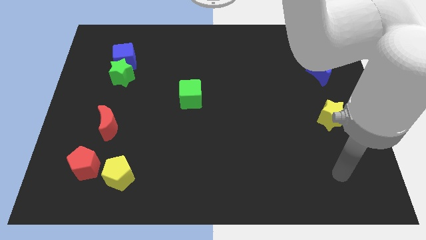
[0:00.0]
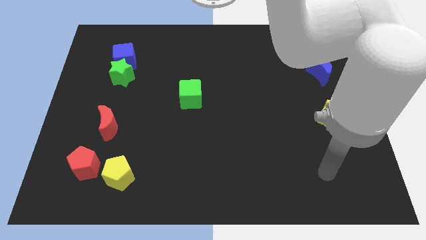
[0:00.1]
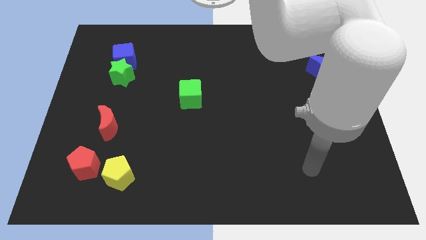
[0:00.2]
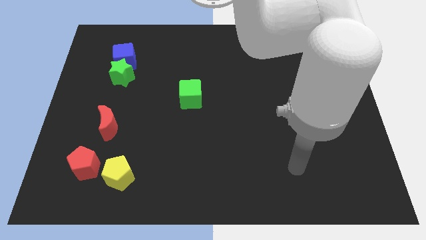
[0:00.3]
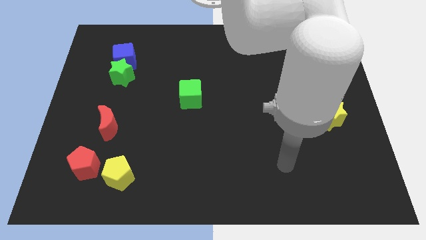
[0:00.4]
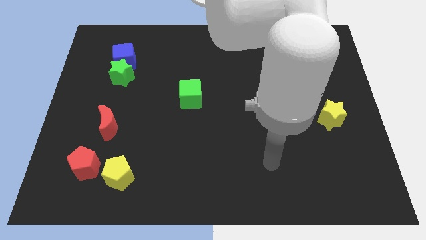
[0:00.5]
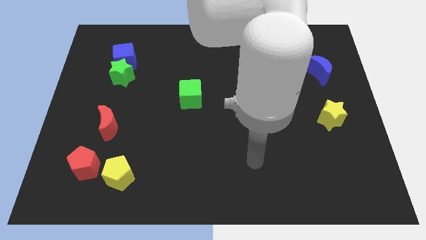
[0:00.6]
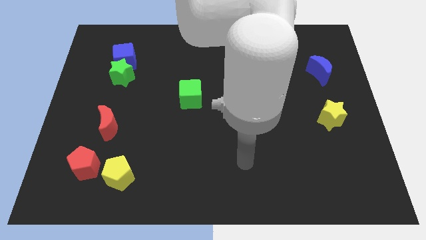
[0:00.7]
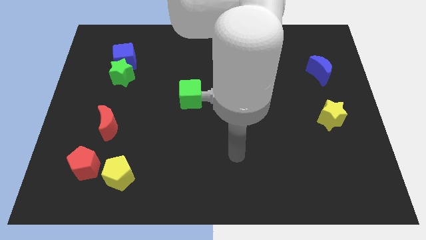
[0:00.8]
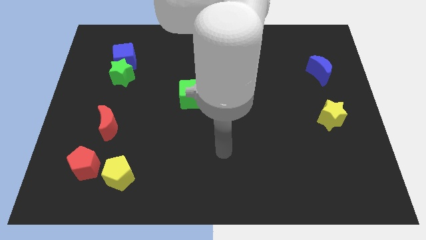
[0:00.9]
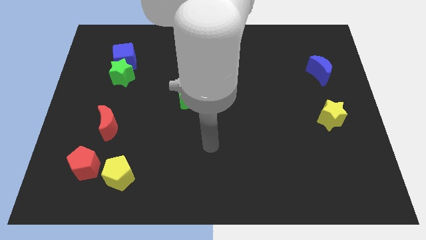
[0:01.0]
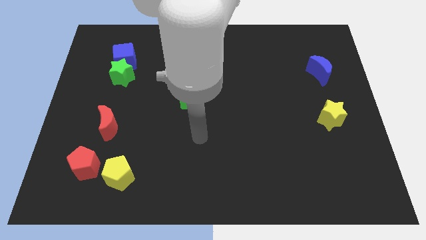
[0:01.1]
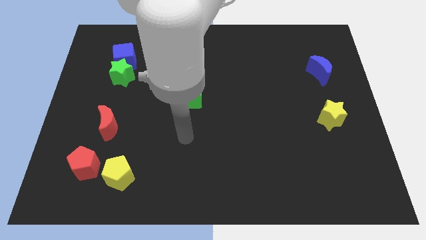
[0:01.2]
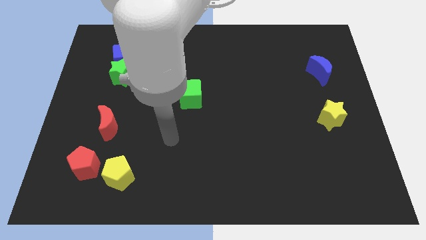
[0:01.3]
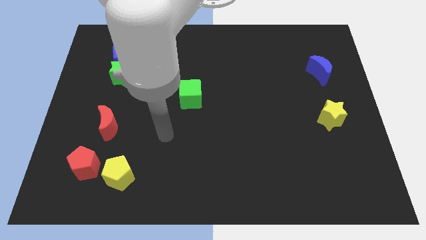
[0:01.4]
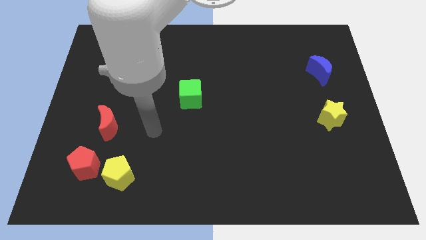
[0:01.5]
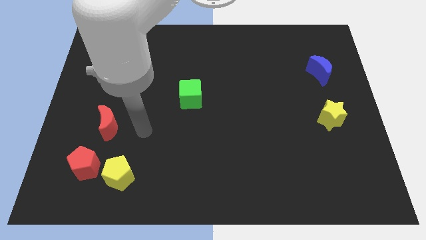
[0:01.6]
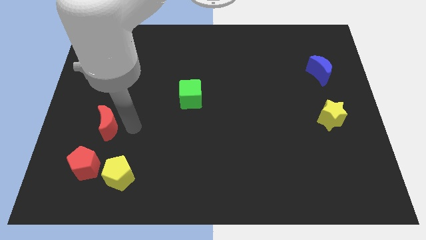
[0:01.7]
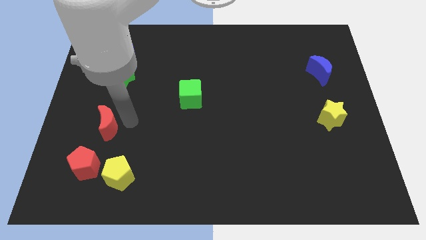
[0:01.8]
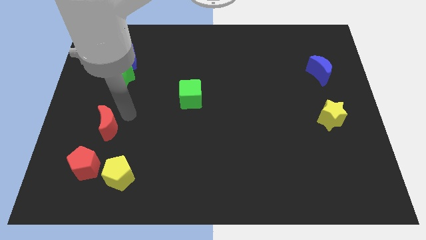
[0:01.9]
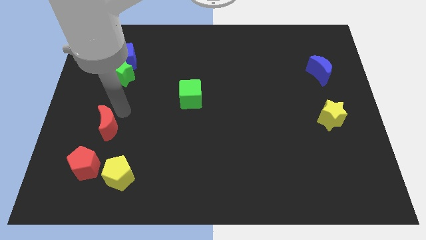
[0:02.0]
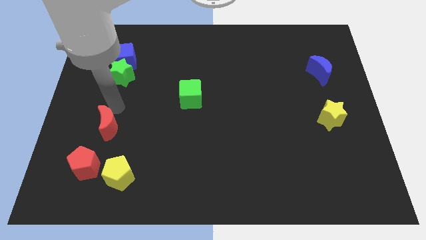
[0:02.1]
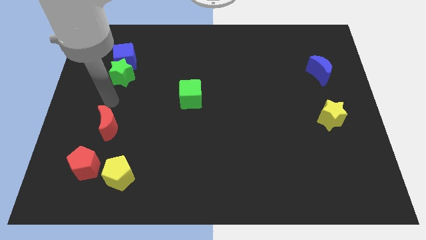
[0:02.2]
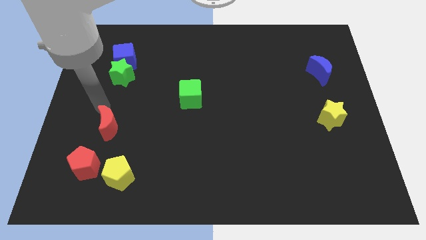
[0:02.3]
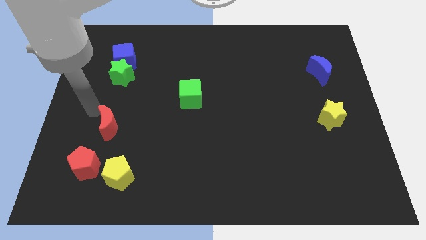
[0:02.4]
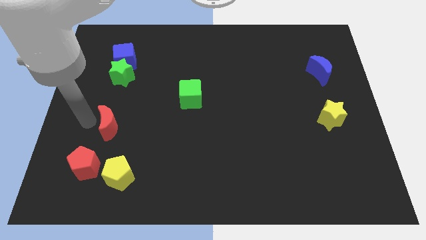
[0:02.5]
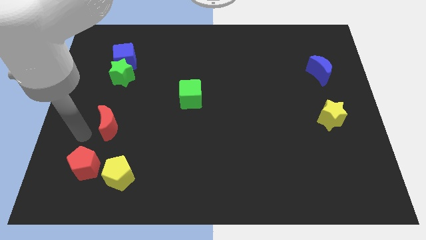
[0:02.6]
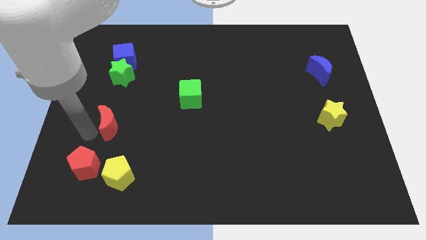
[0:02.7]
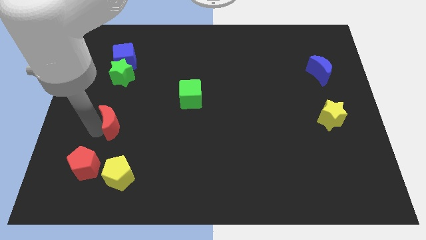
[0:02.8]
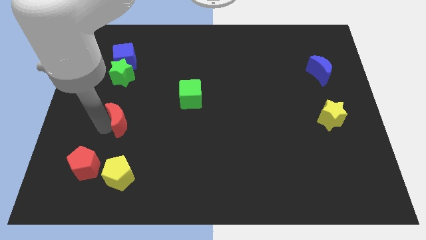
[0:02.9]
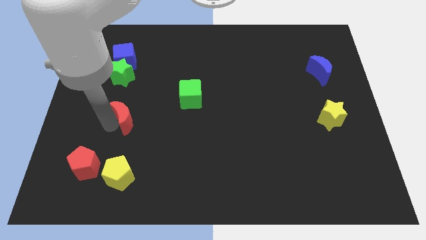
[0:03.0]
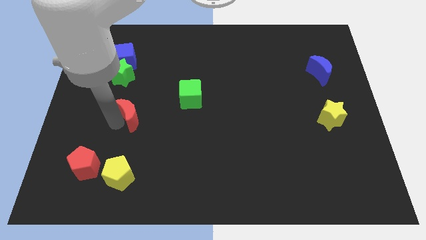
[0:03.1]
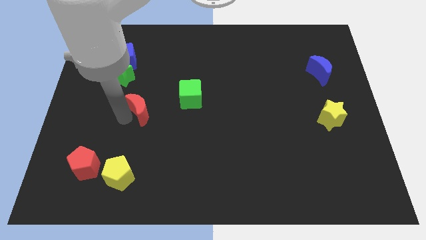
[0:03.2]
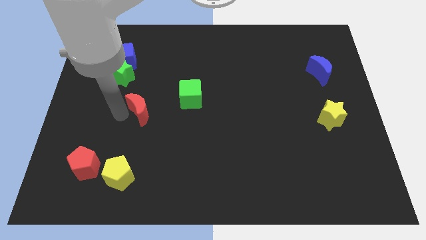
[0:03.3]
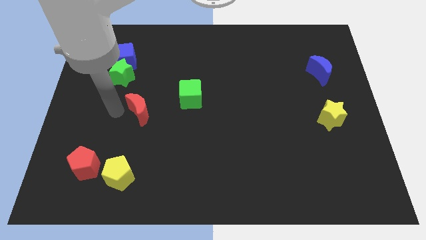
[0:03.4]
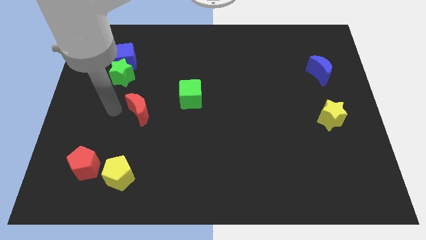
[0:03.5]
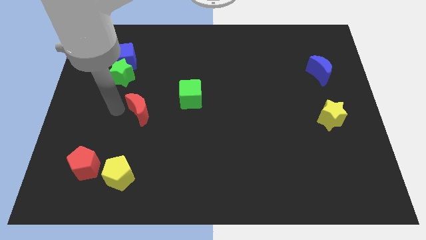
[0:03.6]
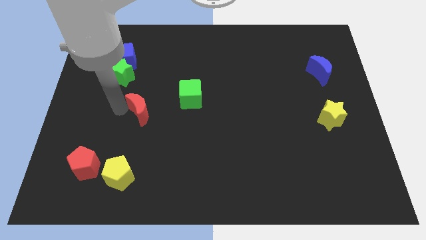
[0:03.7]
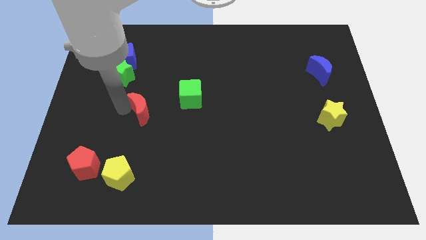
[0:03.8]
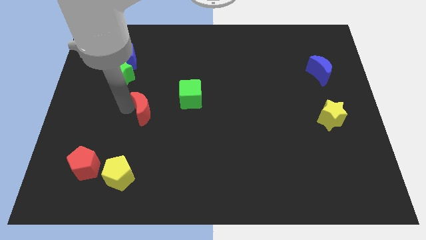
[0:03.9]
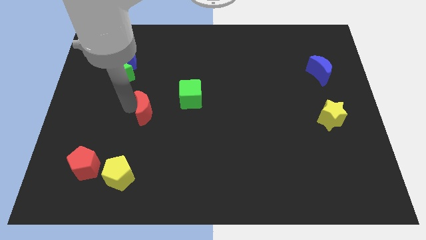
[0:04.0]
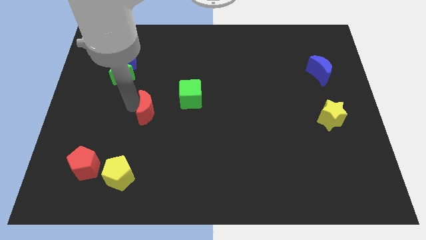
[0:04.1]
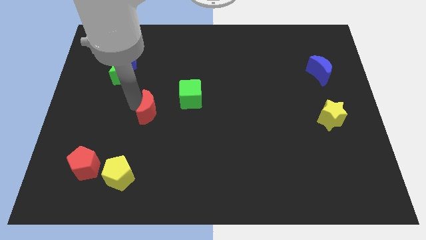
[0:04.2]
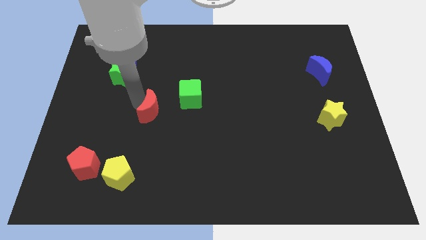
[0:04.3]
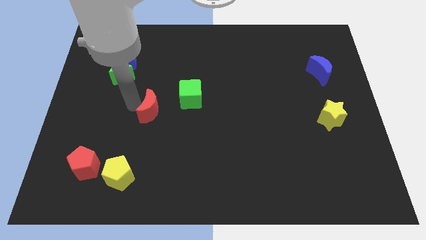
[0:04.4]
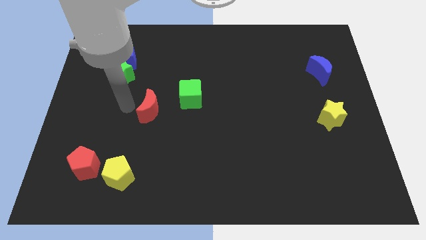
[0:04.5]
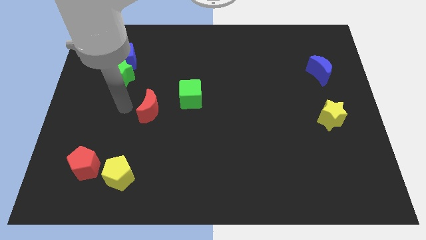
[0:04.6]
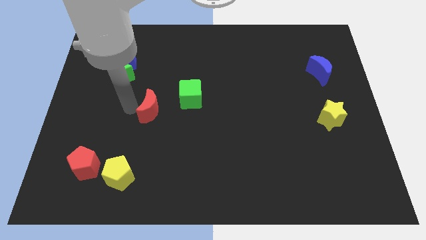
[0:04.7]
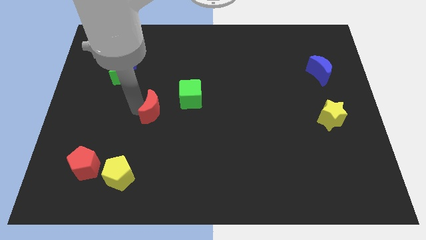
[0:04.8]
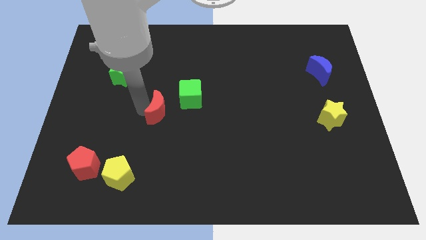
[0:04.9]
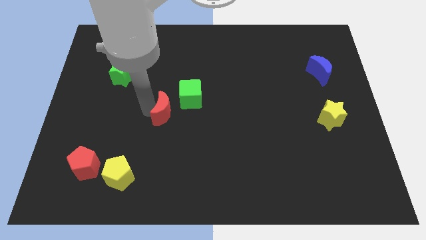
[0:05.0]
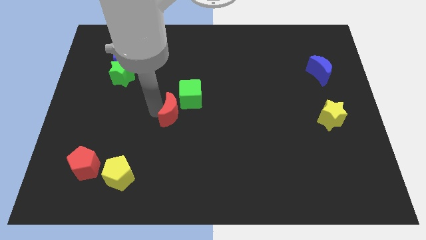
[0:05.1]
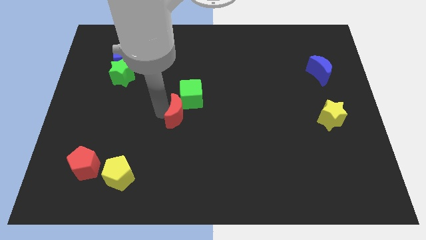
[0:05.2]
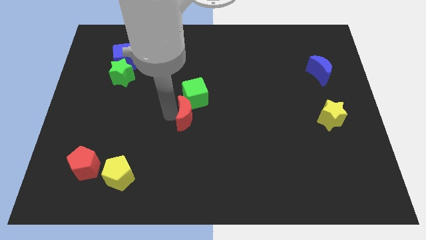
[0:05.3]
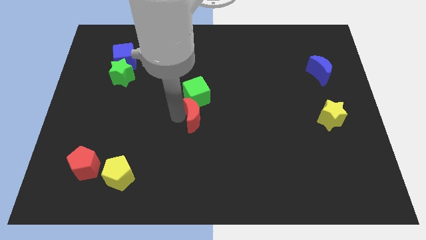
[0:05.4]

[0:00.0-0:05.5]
slide the red moon to the bottom right side of the green cube

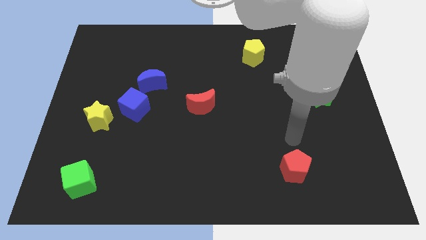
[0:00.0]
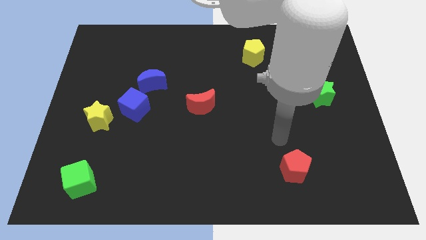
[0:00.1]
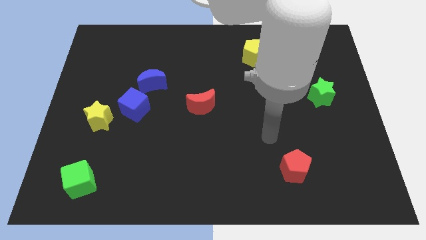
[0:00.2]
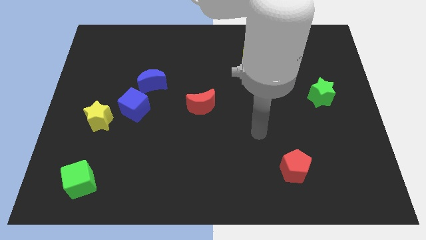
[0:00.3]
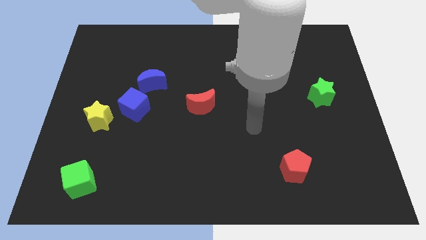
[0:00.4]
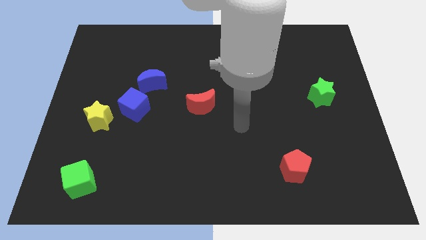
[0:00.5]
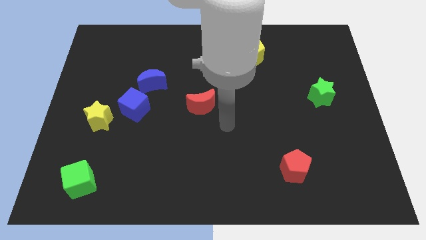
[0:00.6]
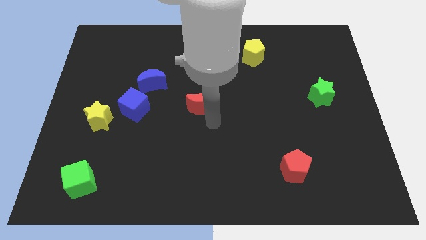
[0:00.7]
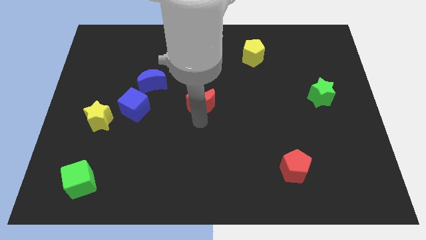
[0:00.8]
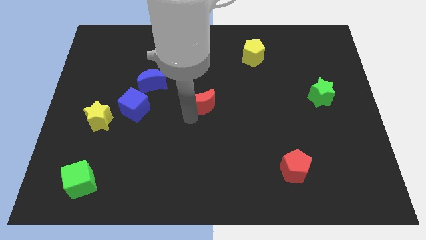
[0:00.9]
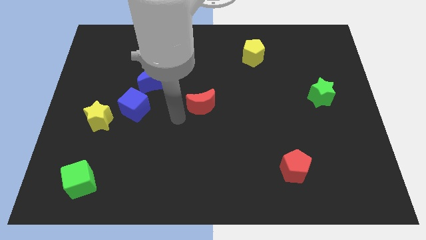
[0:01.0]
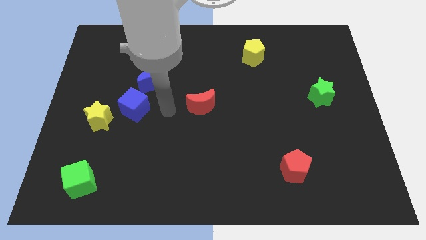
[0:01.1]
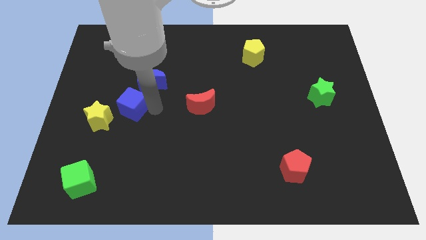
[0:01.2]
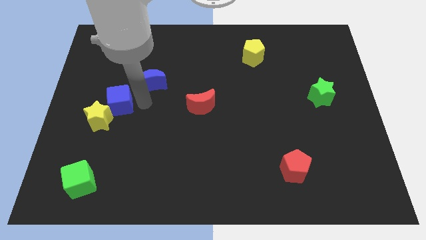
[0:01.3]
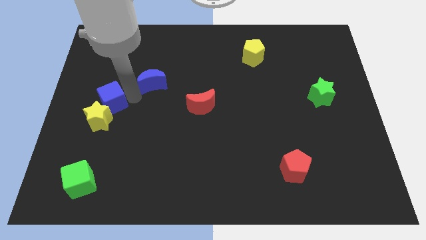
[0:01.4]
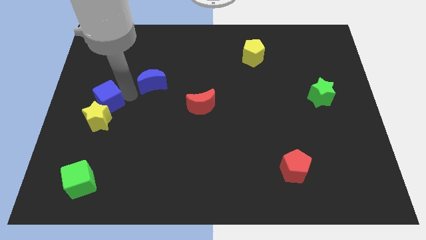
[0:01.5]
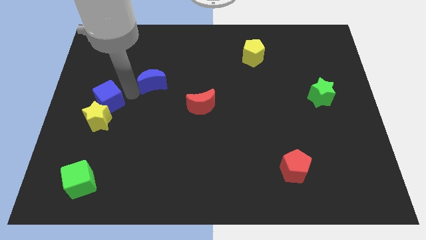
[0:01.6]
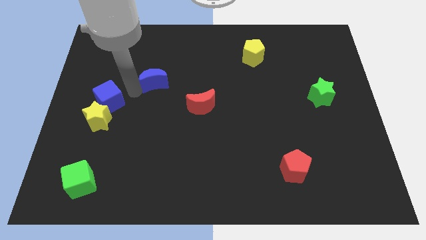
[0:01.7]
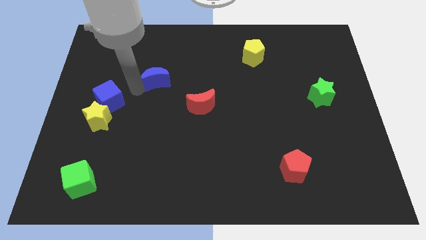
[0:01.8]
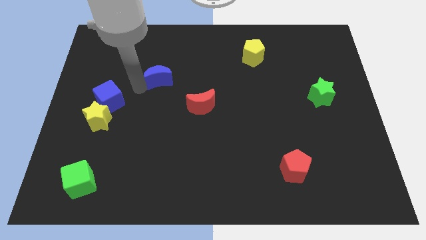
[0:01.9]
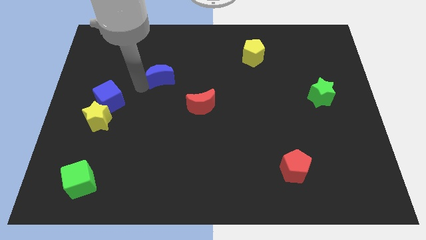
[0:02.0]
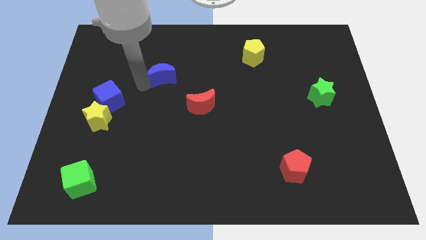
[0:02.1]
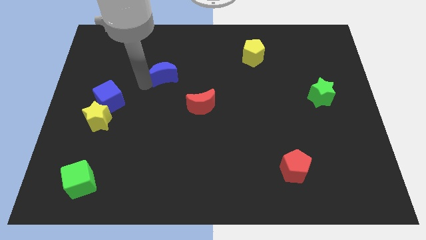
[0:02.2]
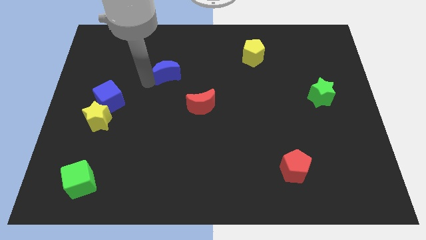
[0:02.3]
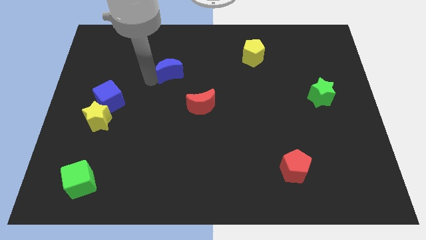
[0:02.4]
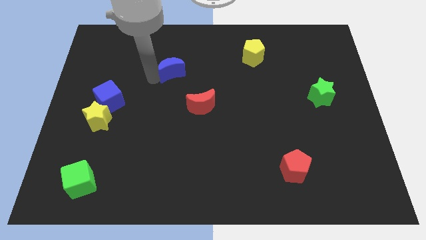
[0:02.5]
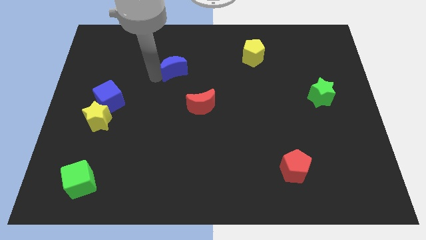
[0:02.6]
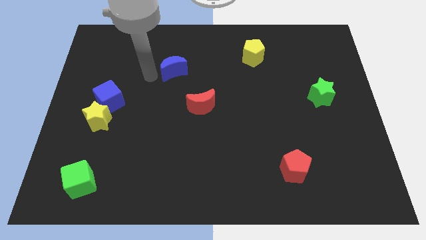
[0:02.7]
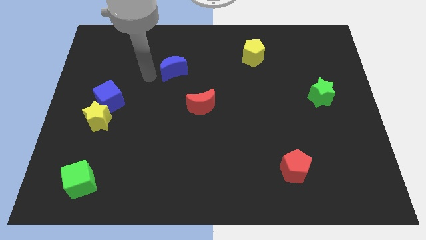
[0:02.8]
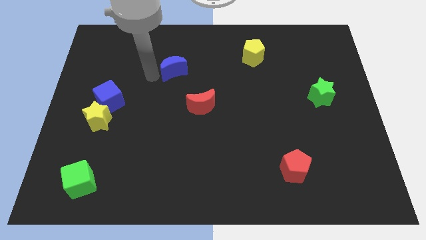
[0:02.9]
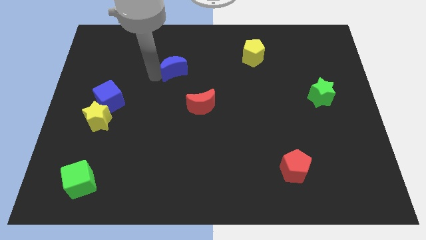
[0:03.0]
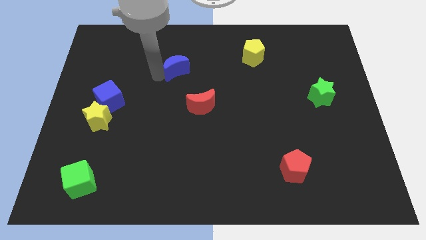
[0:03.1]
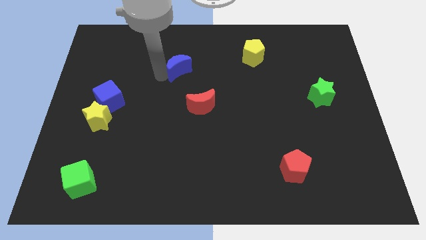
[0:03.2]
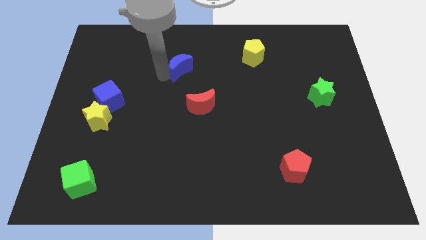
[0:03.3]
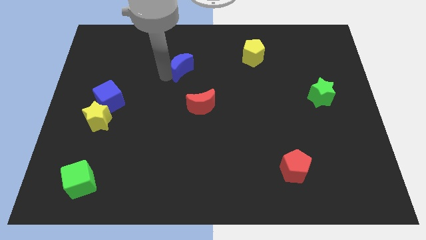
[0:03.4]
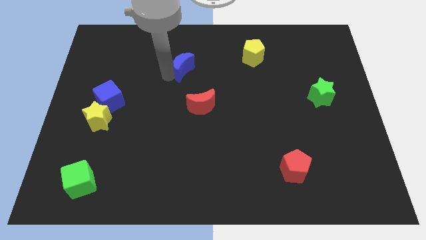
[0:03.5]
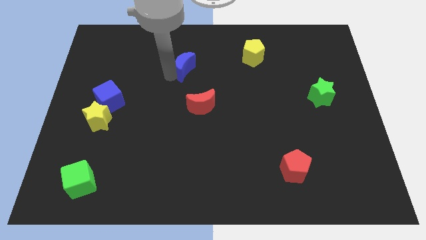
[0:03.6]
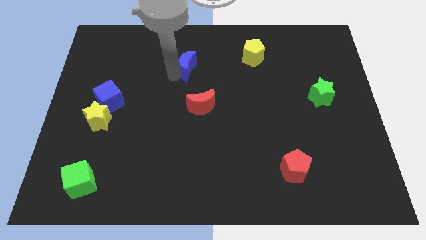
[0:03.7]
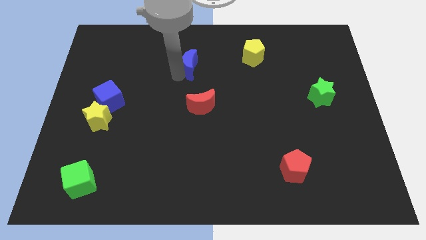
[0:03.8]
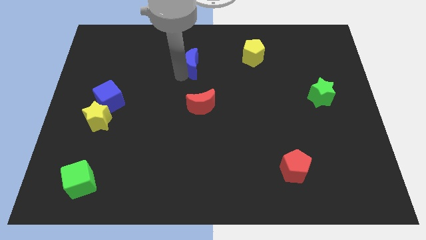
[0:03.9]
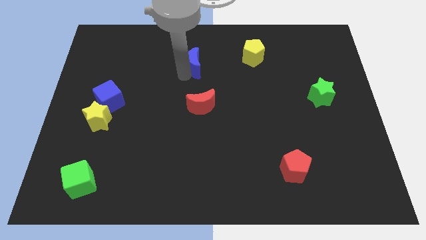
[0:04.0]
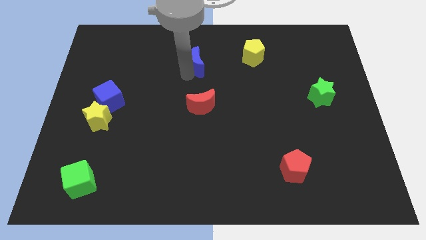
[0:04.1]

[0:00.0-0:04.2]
put the blue moon to the left side of the yellow pentagon
